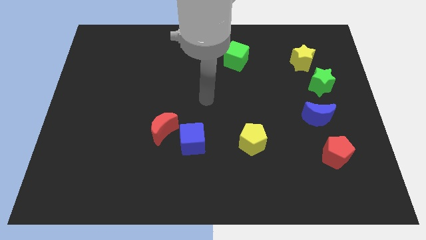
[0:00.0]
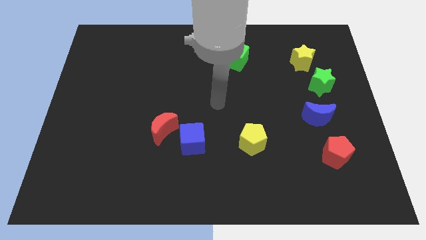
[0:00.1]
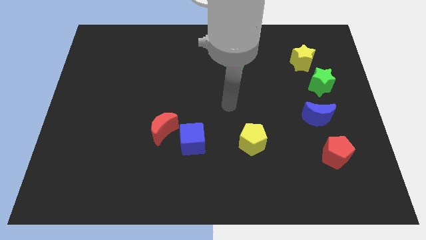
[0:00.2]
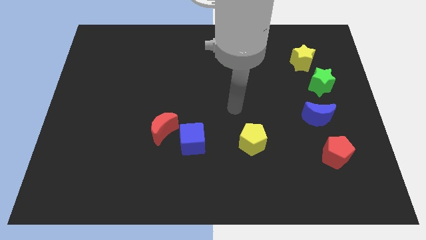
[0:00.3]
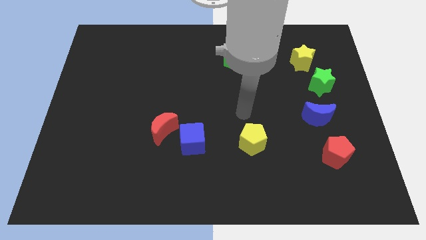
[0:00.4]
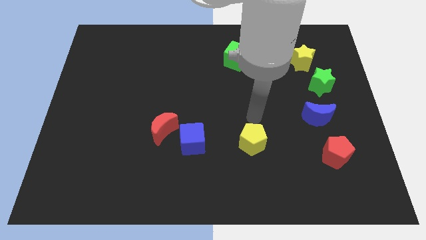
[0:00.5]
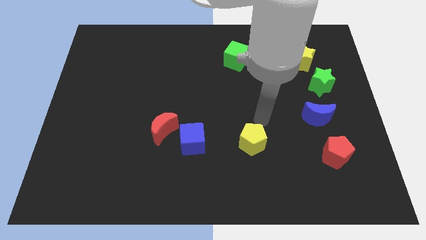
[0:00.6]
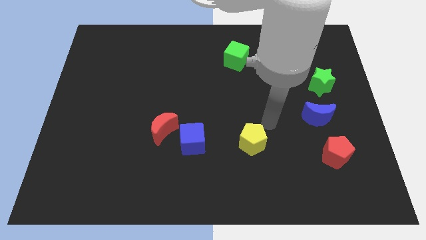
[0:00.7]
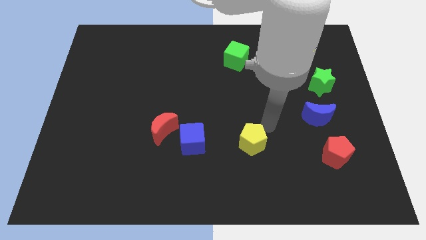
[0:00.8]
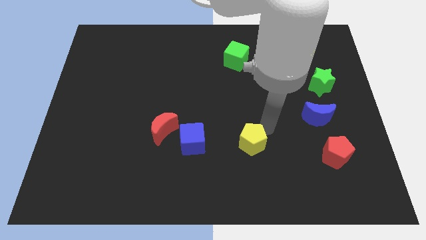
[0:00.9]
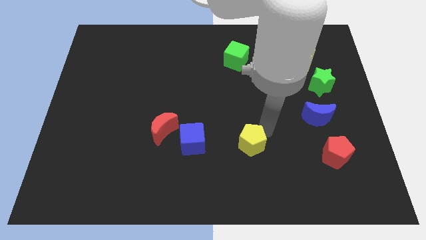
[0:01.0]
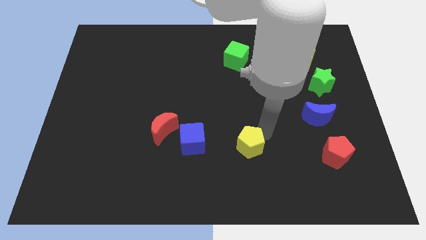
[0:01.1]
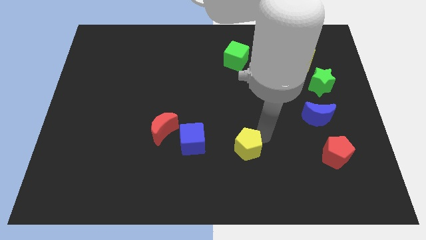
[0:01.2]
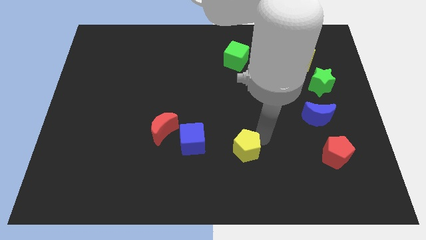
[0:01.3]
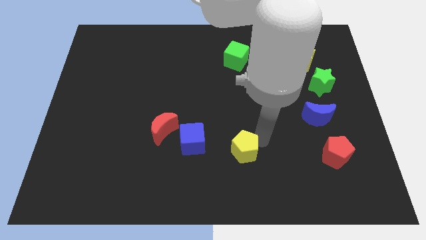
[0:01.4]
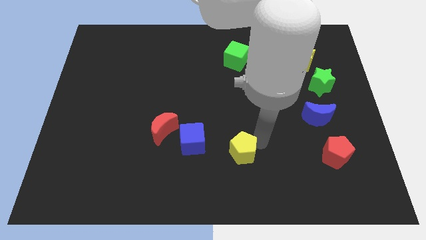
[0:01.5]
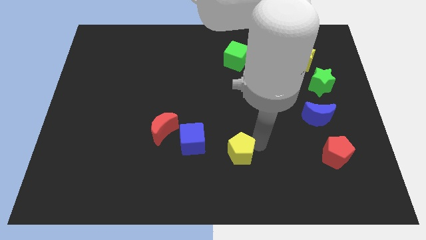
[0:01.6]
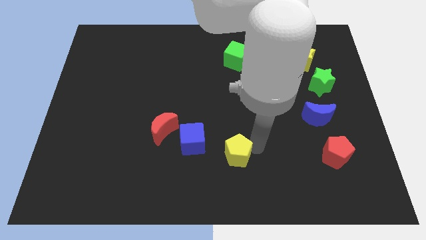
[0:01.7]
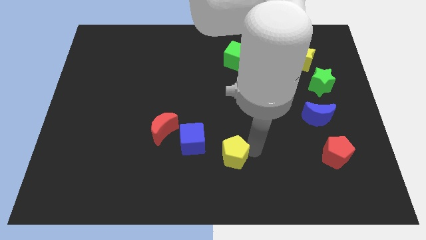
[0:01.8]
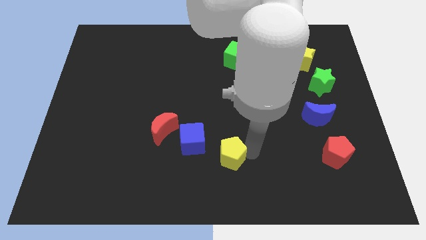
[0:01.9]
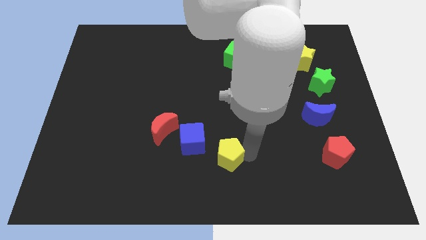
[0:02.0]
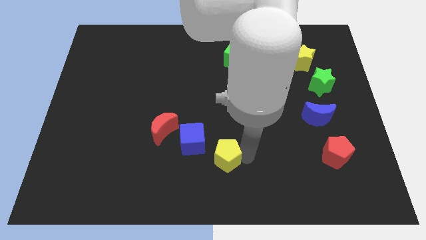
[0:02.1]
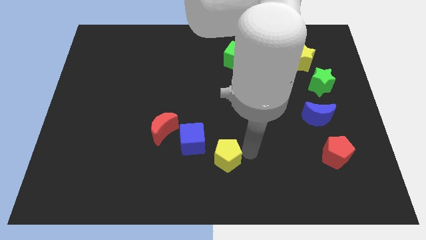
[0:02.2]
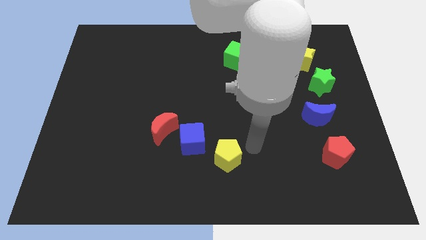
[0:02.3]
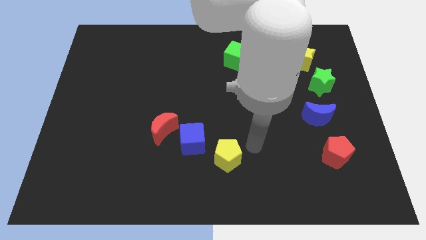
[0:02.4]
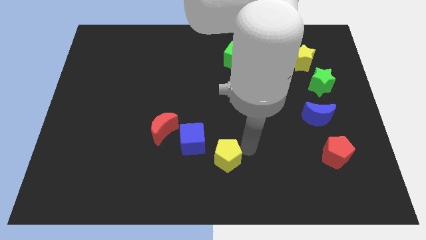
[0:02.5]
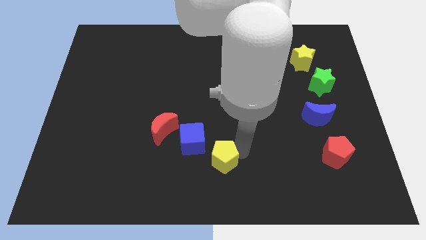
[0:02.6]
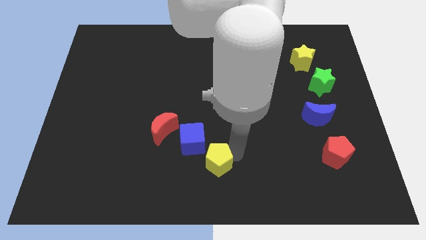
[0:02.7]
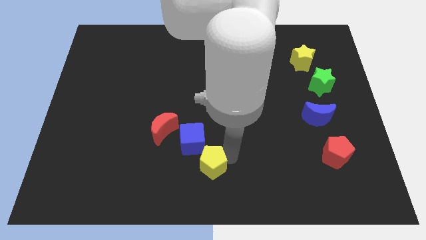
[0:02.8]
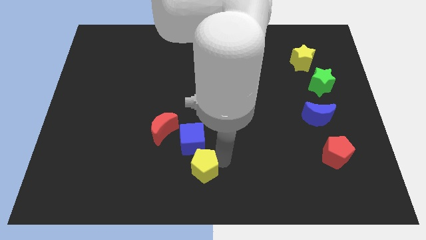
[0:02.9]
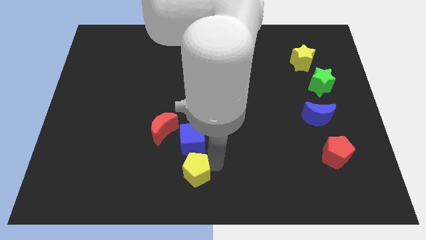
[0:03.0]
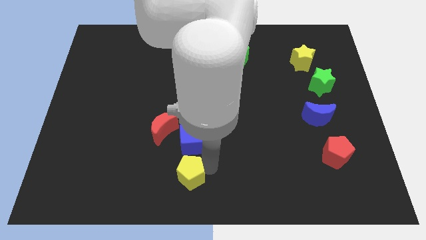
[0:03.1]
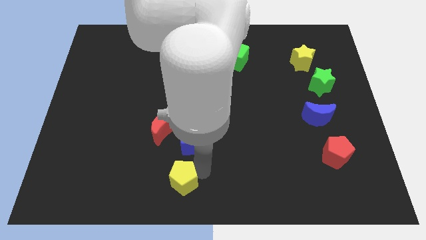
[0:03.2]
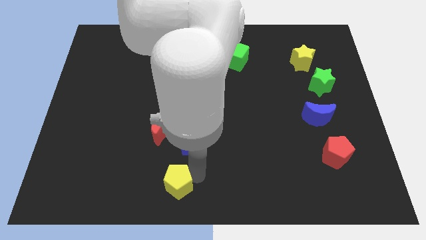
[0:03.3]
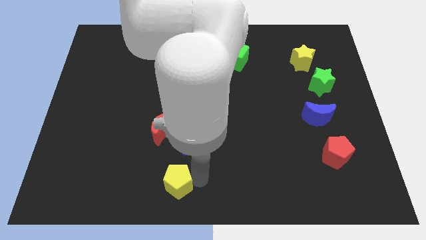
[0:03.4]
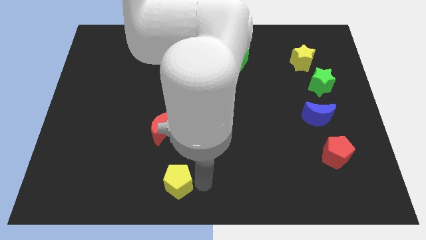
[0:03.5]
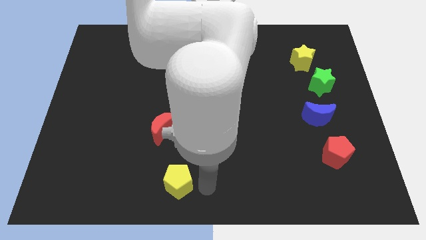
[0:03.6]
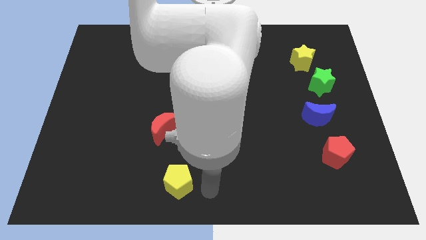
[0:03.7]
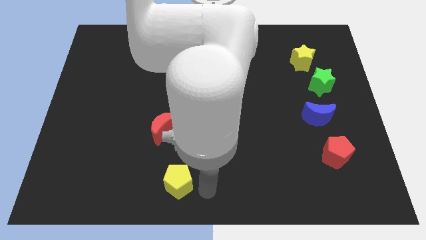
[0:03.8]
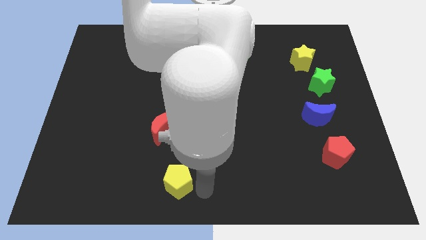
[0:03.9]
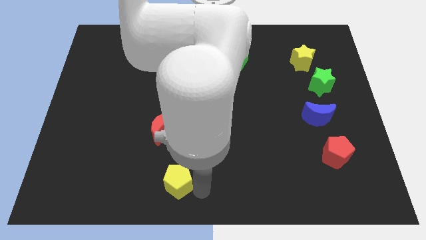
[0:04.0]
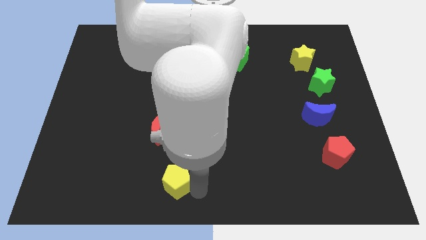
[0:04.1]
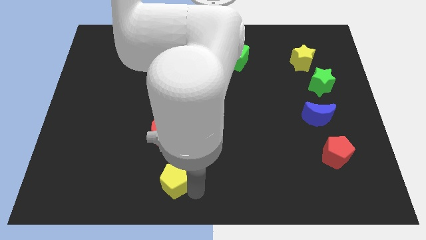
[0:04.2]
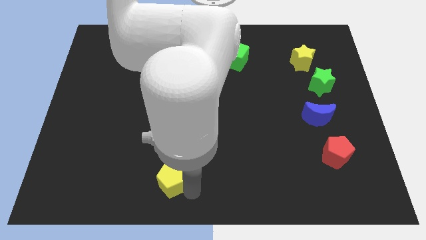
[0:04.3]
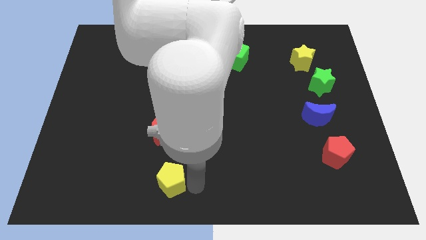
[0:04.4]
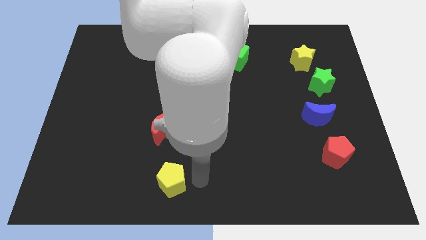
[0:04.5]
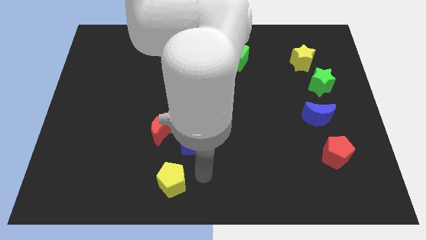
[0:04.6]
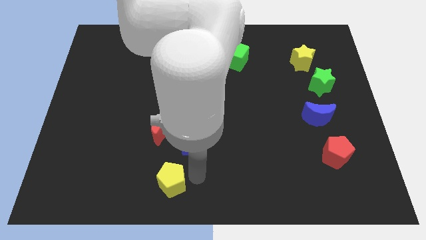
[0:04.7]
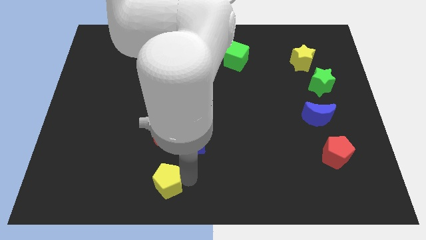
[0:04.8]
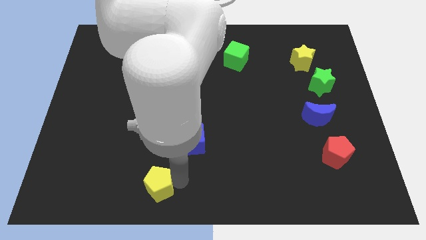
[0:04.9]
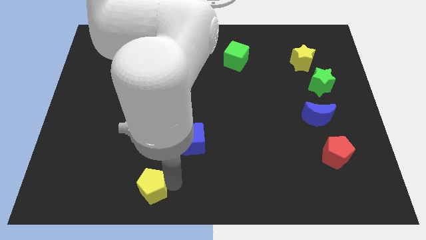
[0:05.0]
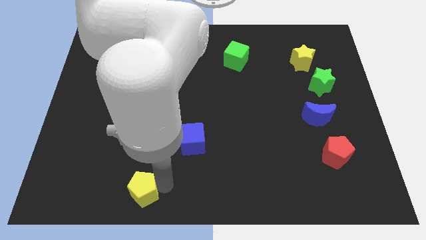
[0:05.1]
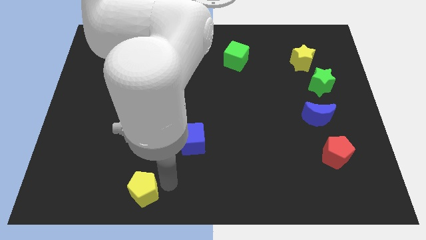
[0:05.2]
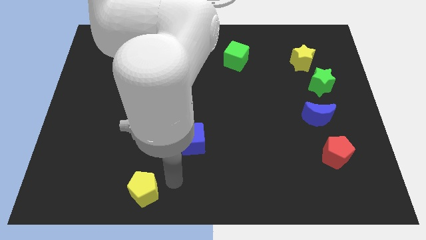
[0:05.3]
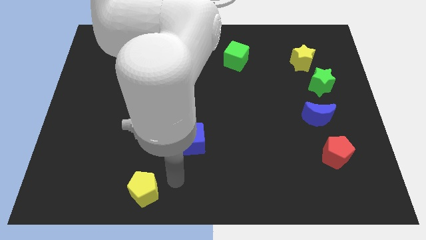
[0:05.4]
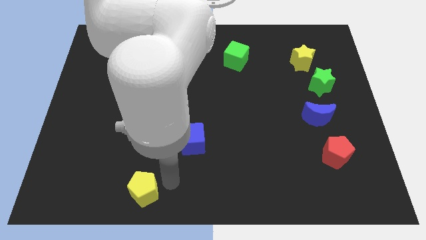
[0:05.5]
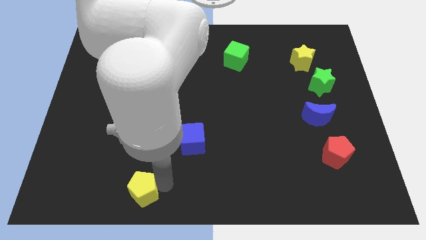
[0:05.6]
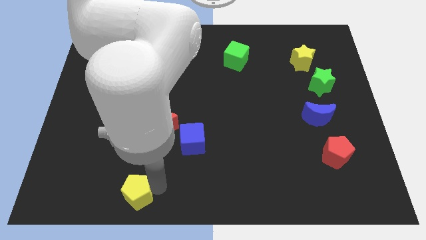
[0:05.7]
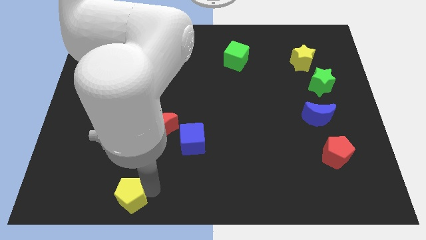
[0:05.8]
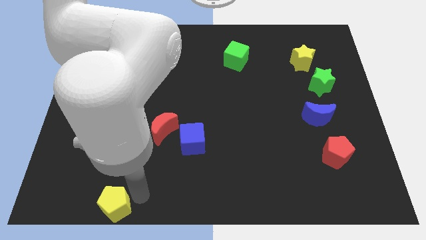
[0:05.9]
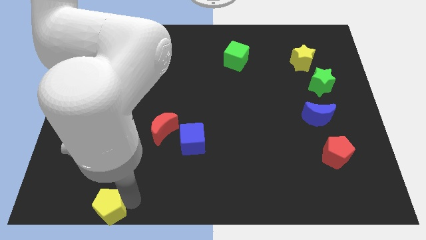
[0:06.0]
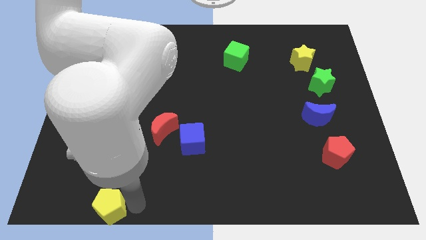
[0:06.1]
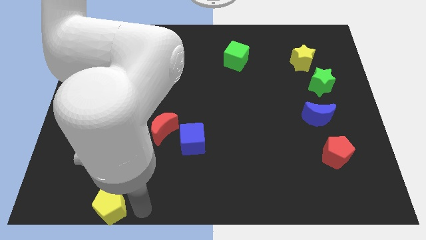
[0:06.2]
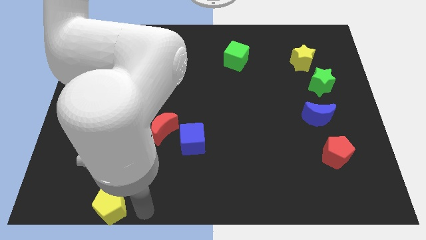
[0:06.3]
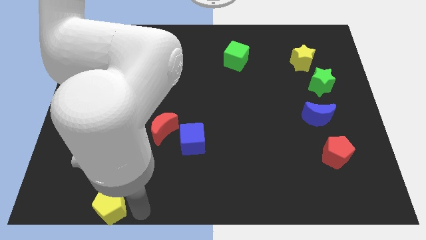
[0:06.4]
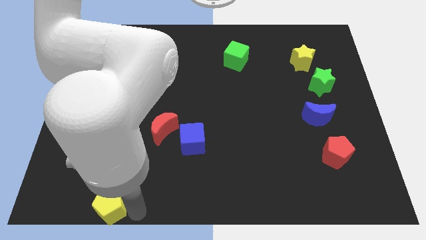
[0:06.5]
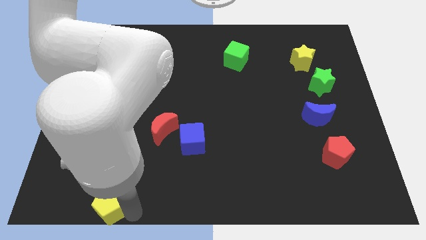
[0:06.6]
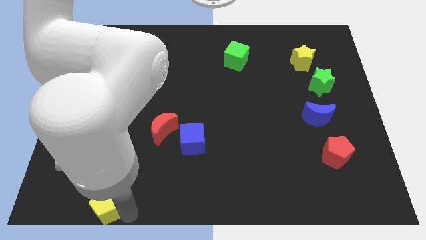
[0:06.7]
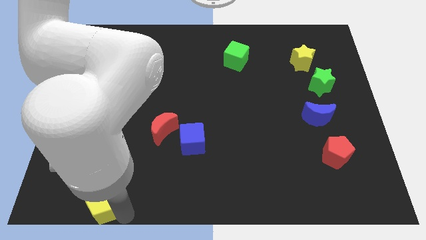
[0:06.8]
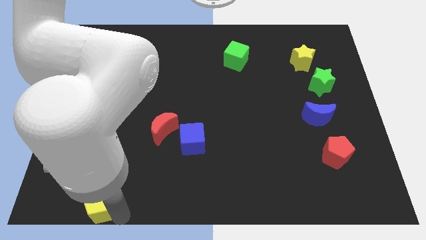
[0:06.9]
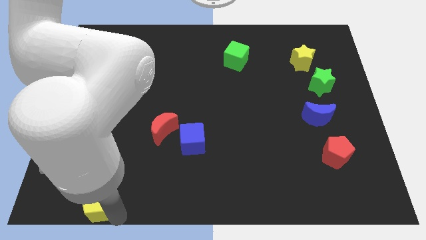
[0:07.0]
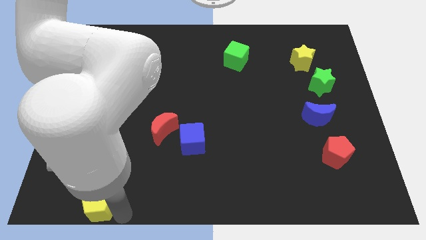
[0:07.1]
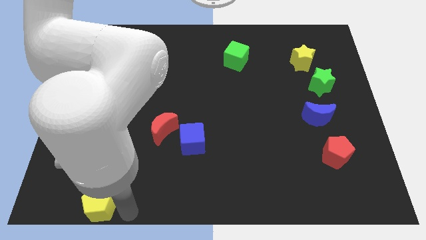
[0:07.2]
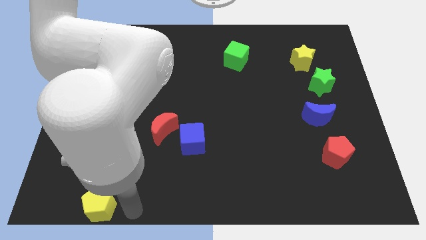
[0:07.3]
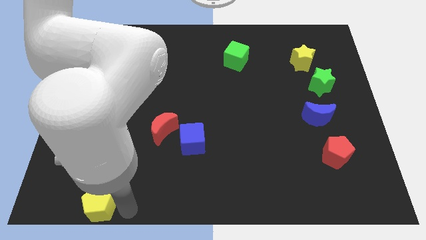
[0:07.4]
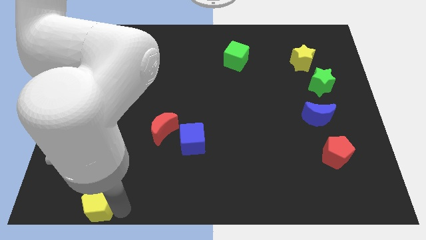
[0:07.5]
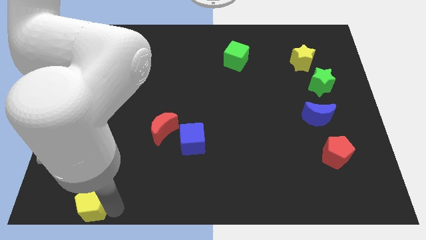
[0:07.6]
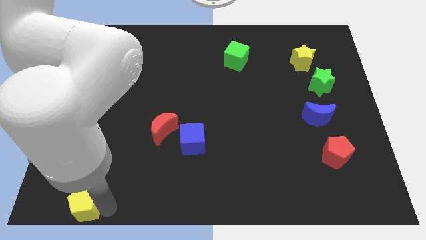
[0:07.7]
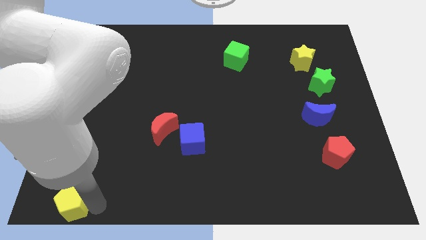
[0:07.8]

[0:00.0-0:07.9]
move the yellow pentagon to the lower left corner
